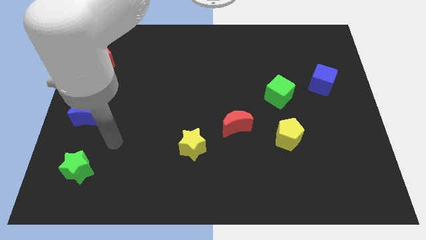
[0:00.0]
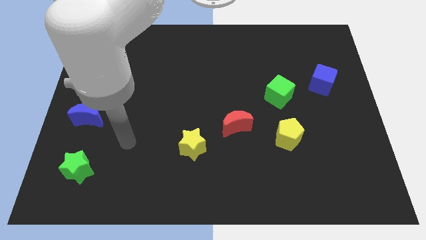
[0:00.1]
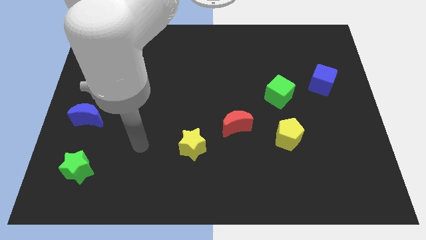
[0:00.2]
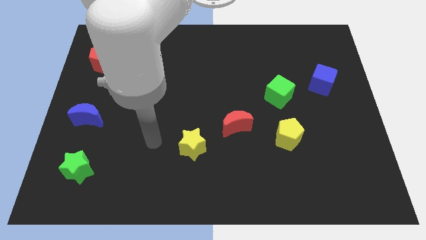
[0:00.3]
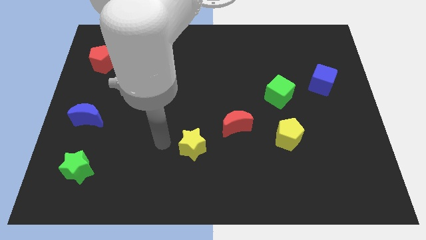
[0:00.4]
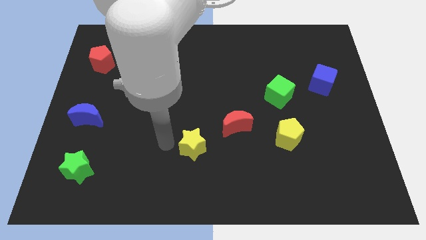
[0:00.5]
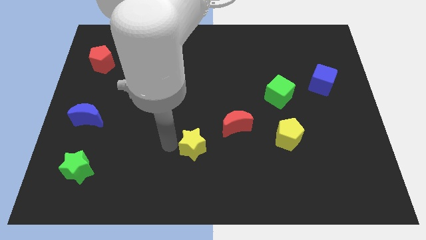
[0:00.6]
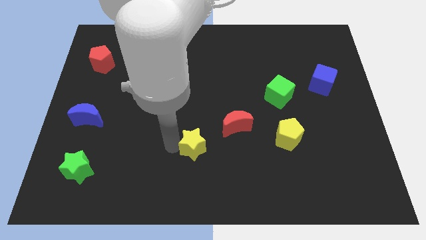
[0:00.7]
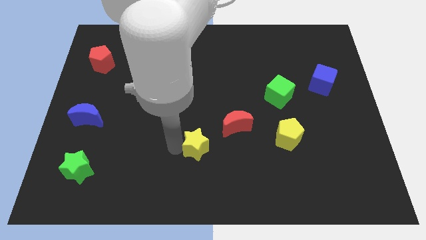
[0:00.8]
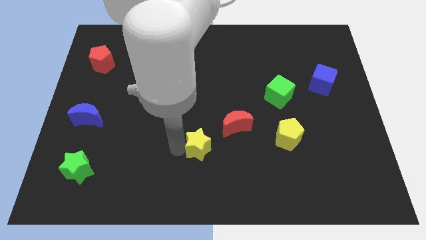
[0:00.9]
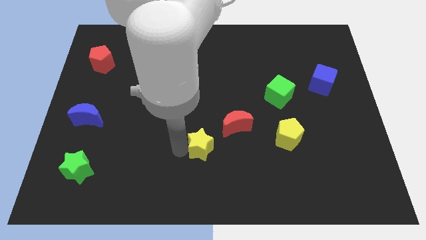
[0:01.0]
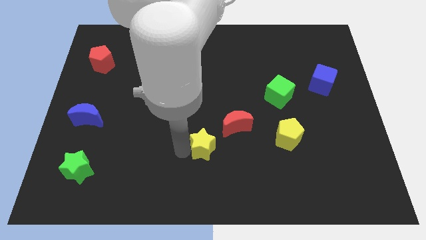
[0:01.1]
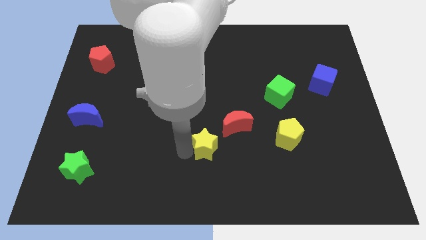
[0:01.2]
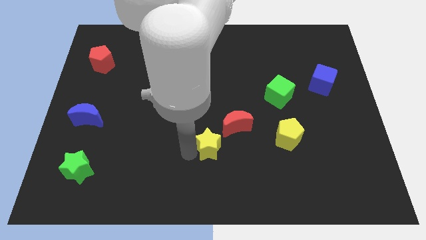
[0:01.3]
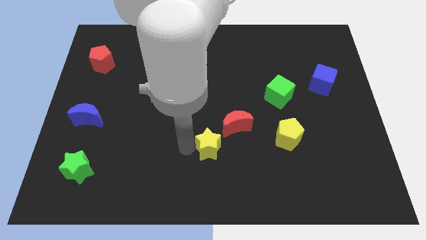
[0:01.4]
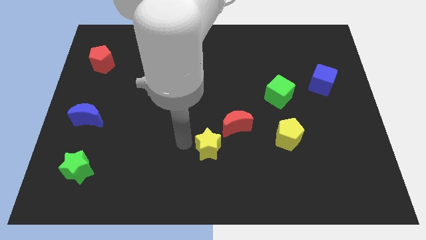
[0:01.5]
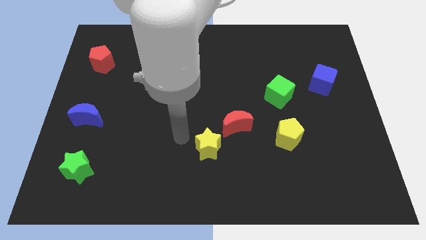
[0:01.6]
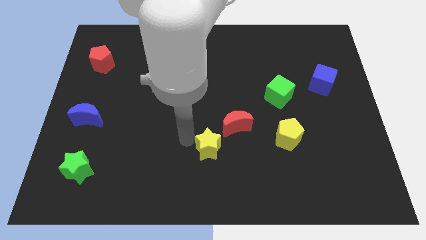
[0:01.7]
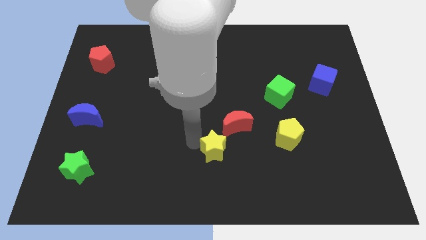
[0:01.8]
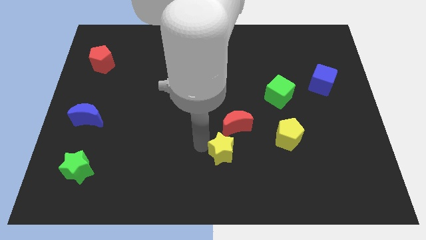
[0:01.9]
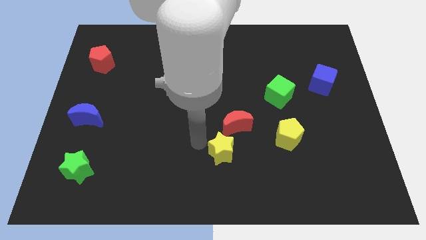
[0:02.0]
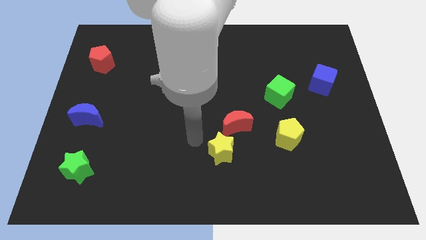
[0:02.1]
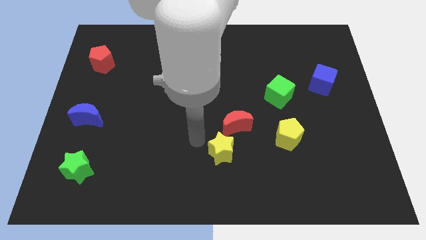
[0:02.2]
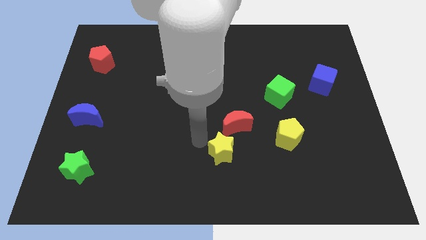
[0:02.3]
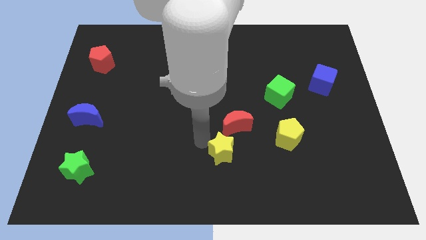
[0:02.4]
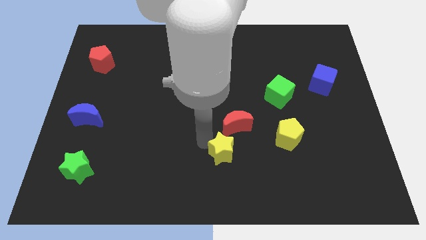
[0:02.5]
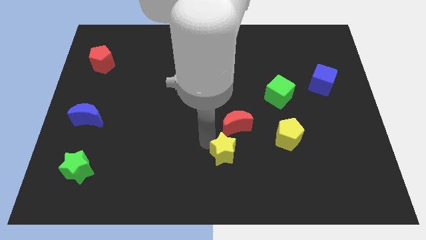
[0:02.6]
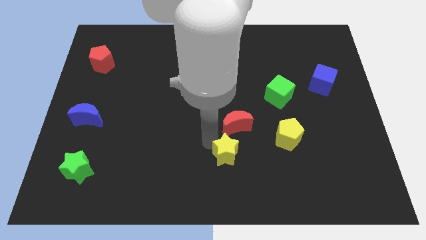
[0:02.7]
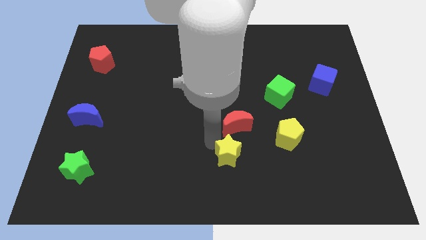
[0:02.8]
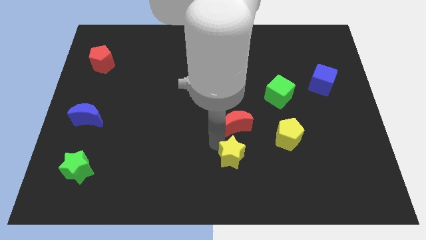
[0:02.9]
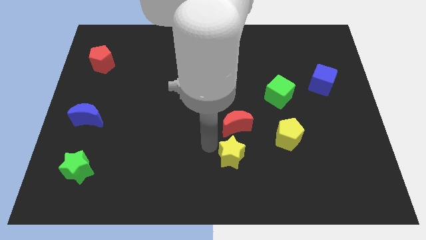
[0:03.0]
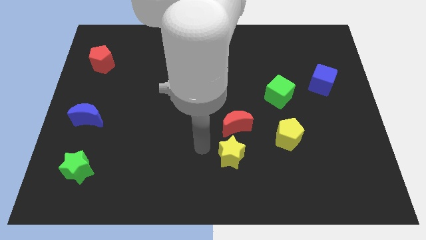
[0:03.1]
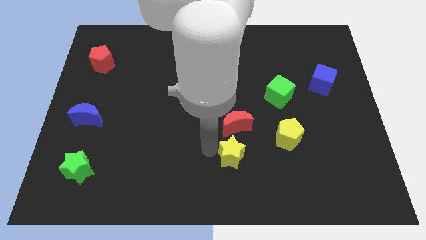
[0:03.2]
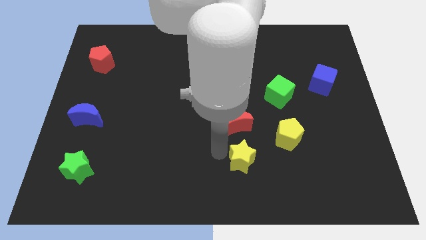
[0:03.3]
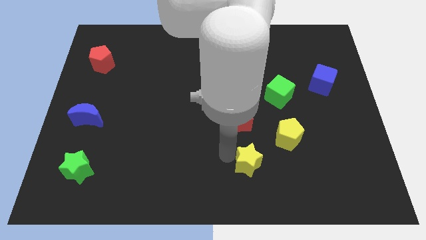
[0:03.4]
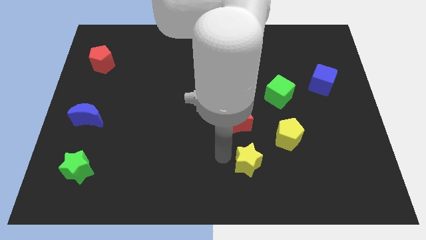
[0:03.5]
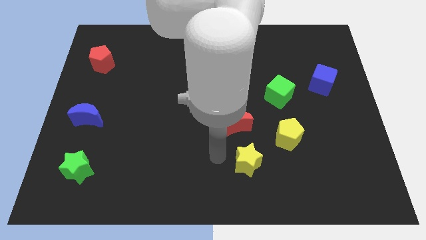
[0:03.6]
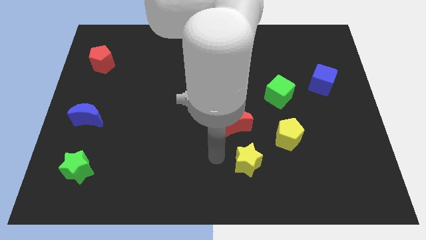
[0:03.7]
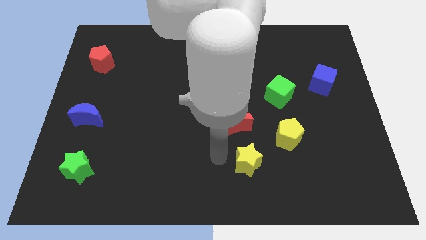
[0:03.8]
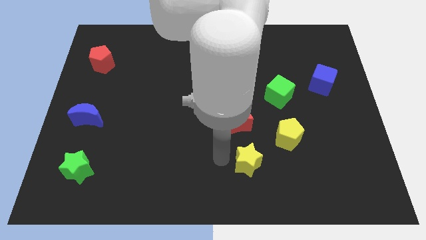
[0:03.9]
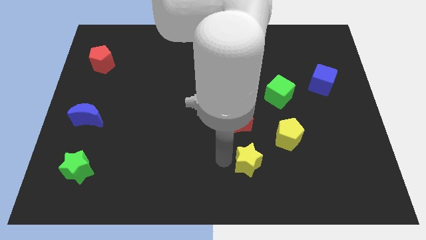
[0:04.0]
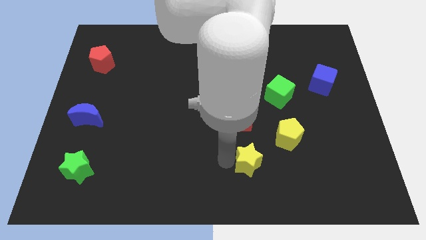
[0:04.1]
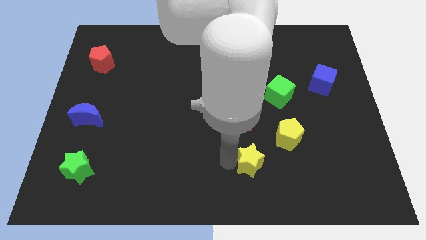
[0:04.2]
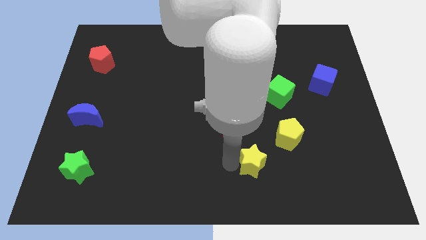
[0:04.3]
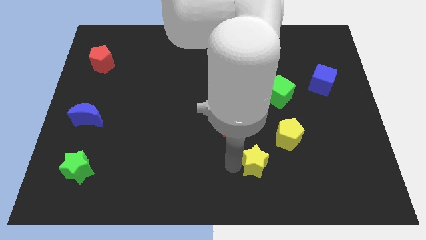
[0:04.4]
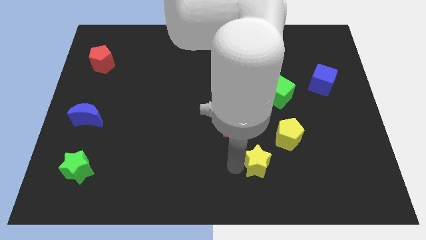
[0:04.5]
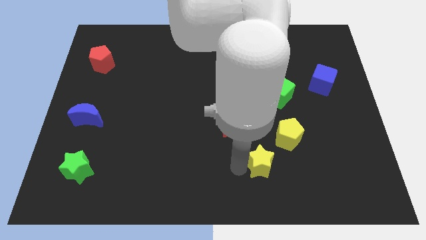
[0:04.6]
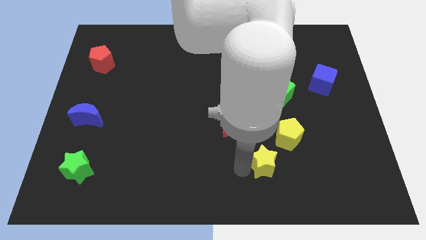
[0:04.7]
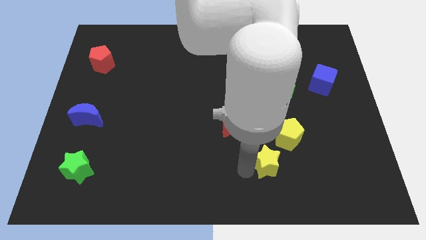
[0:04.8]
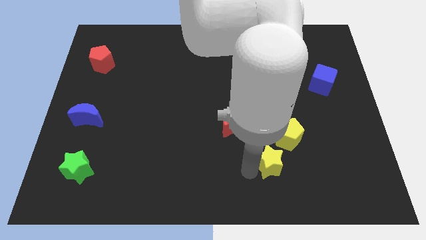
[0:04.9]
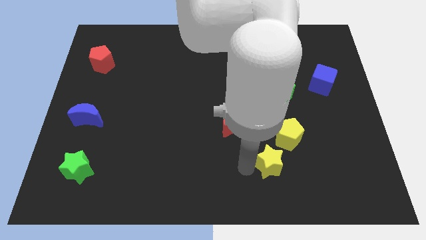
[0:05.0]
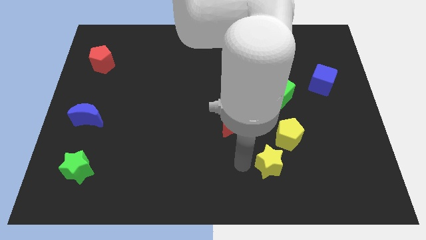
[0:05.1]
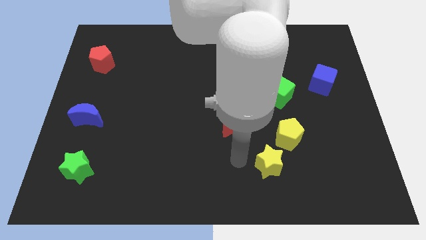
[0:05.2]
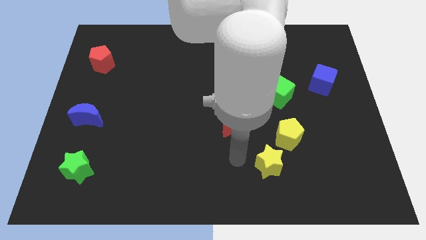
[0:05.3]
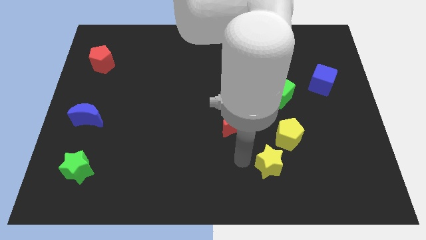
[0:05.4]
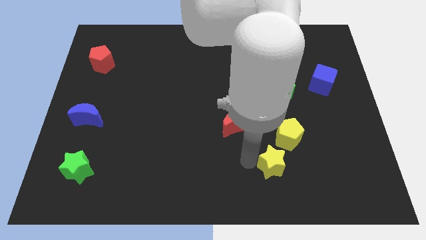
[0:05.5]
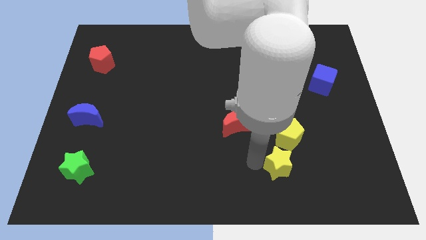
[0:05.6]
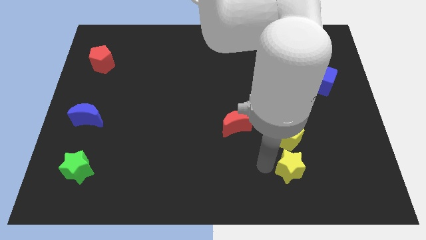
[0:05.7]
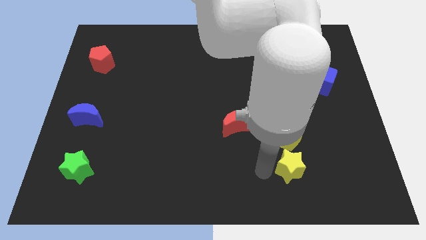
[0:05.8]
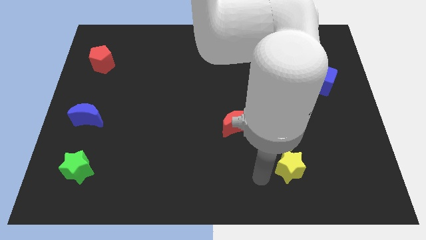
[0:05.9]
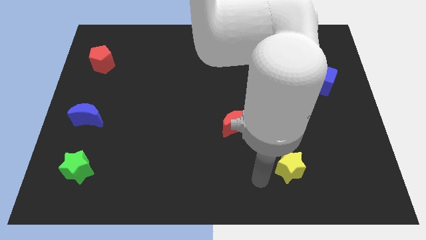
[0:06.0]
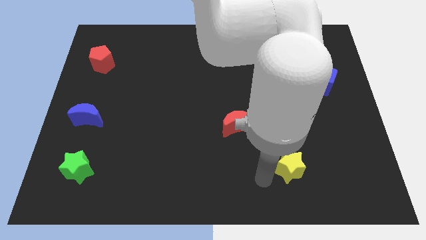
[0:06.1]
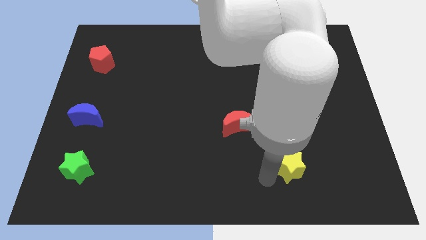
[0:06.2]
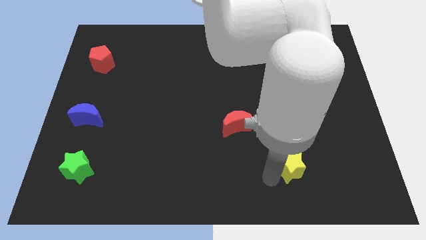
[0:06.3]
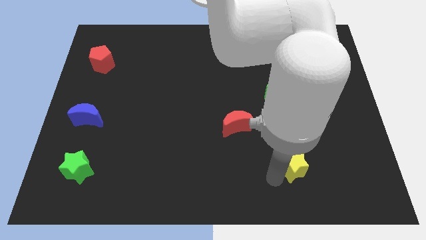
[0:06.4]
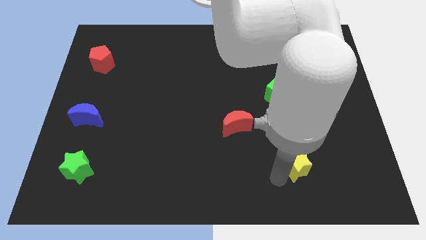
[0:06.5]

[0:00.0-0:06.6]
slide the yellow star to the bottom right side of the yellow pentagon

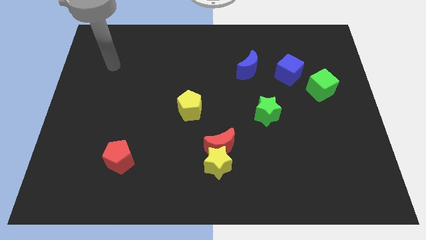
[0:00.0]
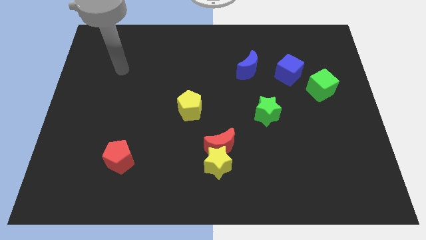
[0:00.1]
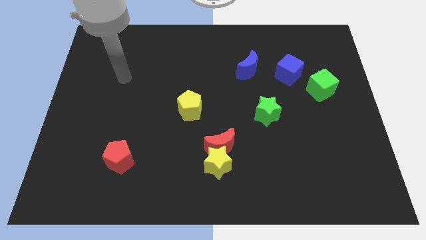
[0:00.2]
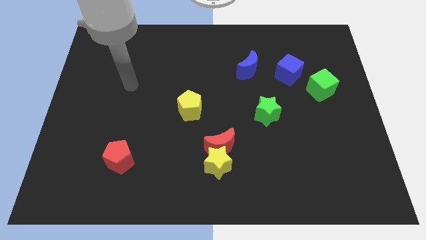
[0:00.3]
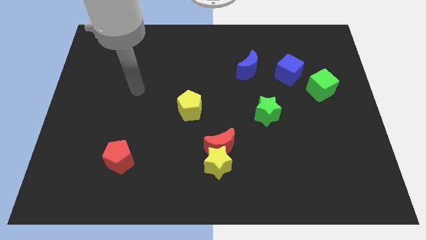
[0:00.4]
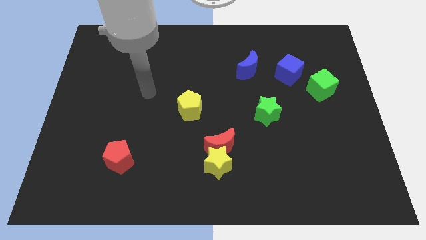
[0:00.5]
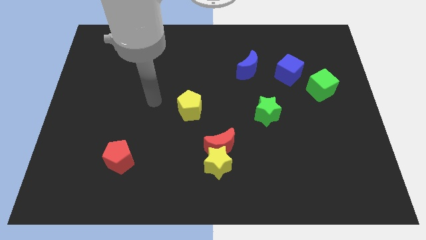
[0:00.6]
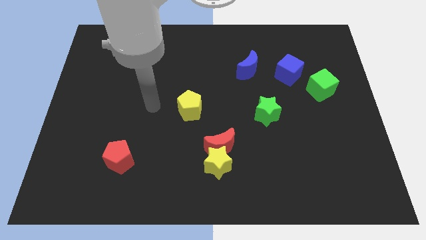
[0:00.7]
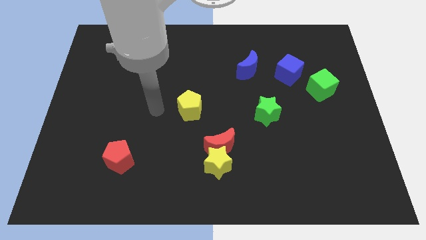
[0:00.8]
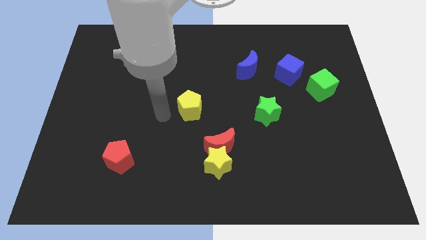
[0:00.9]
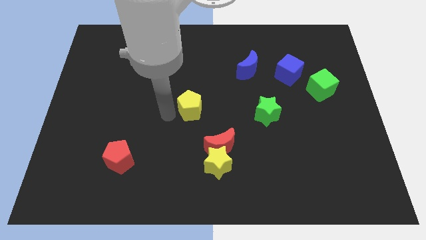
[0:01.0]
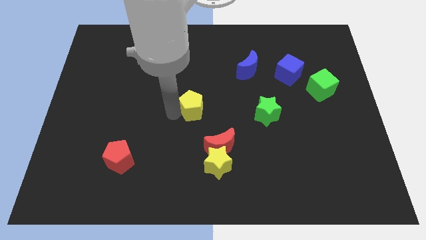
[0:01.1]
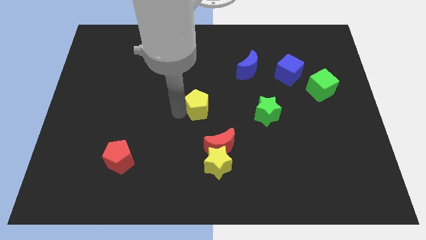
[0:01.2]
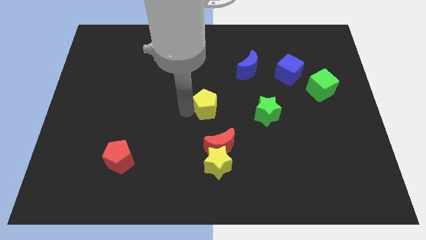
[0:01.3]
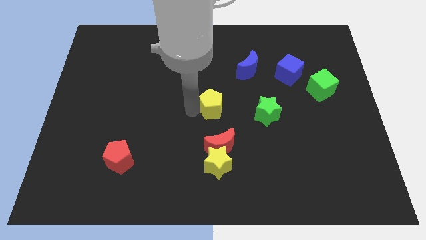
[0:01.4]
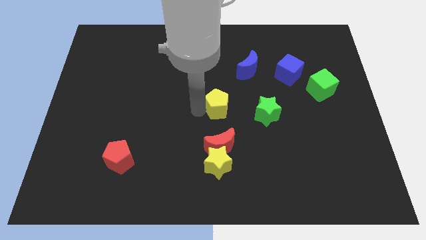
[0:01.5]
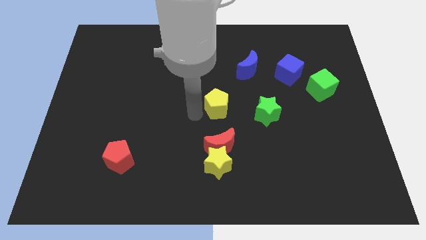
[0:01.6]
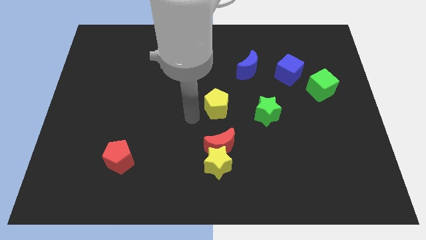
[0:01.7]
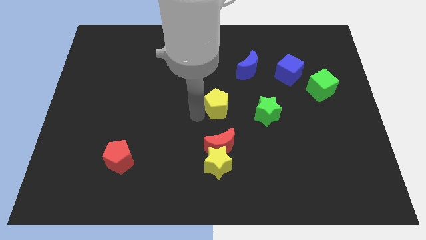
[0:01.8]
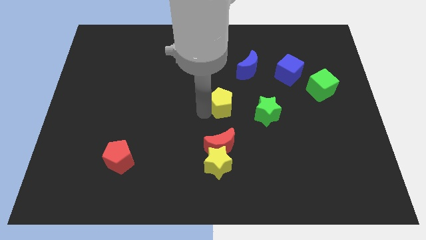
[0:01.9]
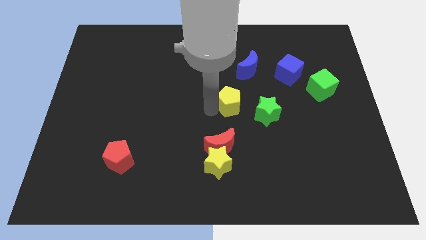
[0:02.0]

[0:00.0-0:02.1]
push the yellow pentagon diagonally up and to the left of the green star
